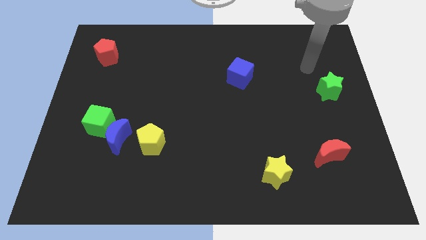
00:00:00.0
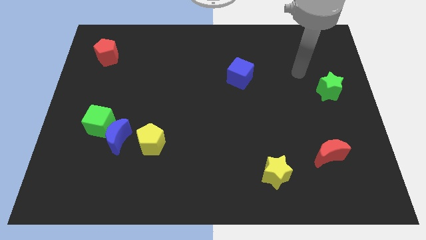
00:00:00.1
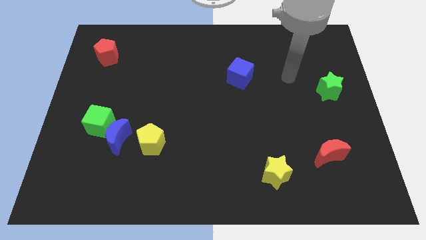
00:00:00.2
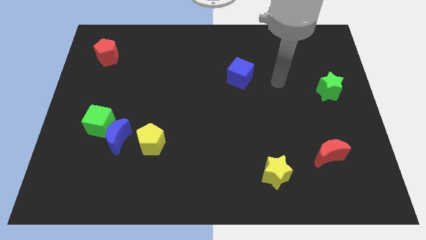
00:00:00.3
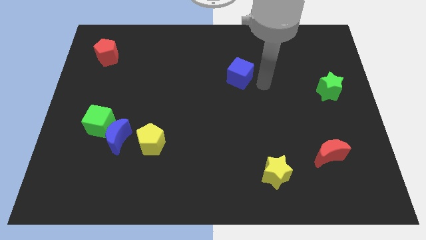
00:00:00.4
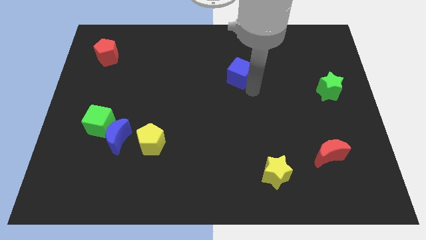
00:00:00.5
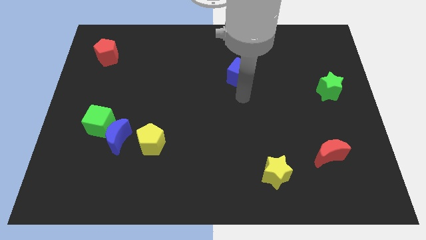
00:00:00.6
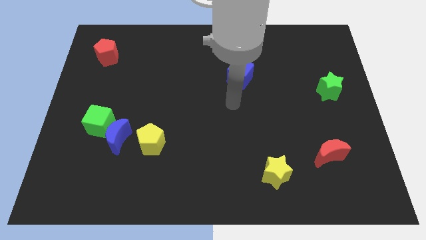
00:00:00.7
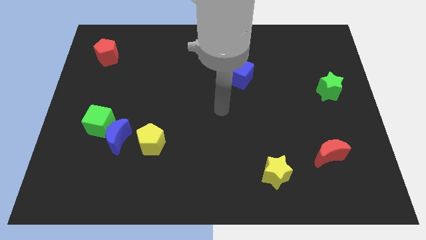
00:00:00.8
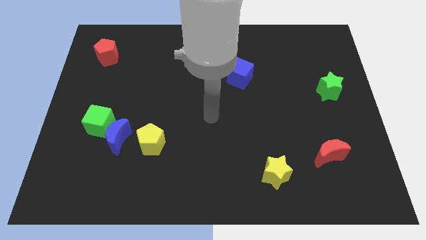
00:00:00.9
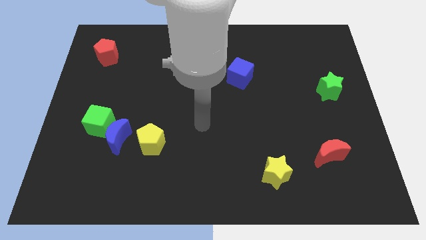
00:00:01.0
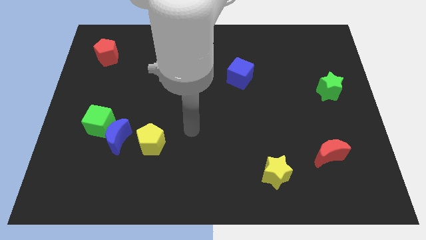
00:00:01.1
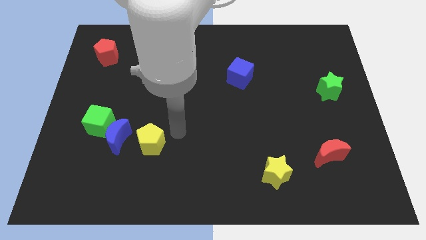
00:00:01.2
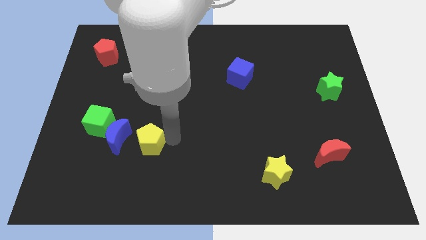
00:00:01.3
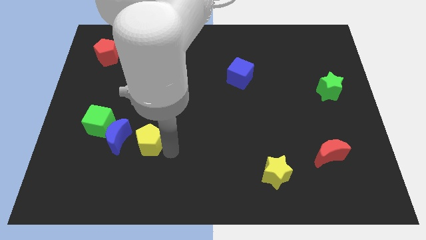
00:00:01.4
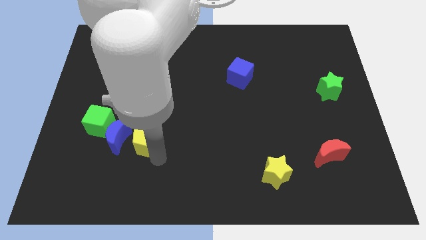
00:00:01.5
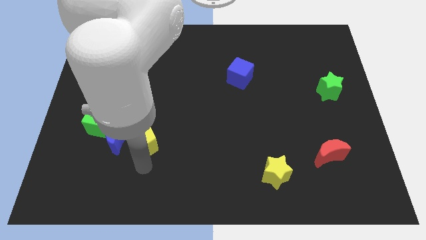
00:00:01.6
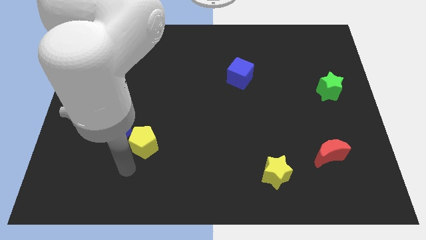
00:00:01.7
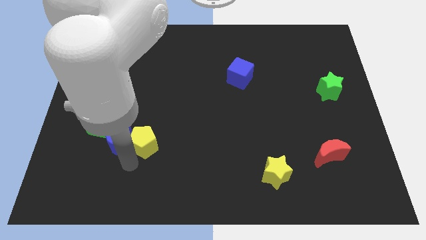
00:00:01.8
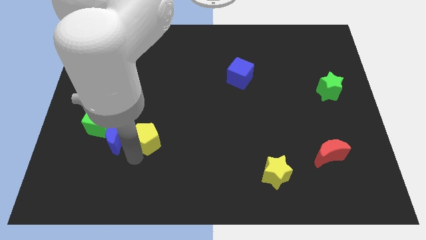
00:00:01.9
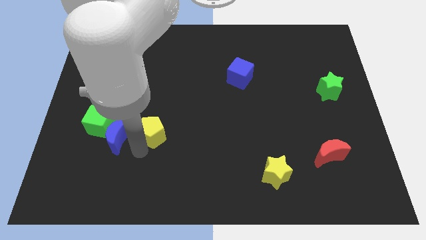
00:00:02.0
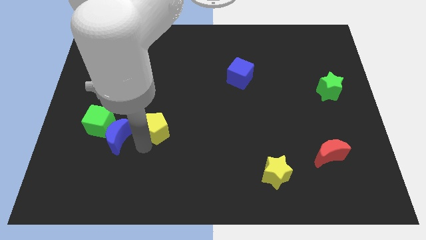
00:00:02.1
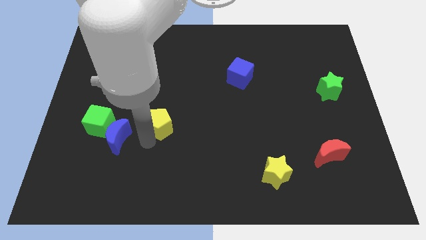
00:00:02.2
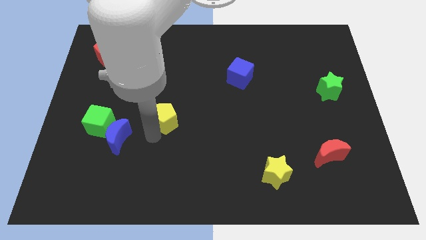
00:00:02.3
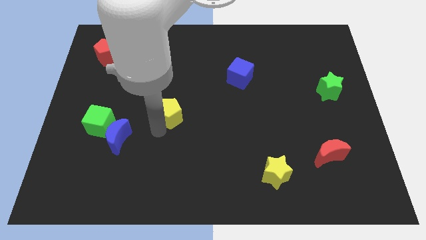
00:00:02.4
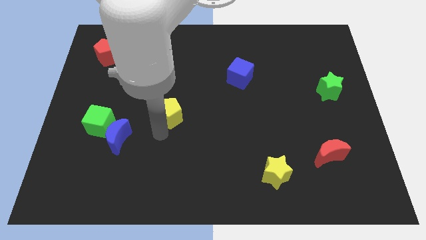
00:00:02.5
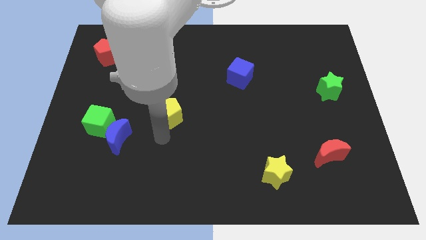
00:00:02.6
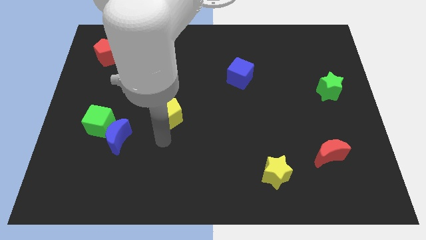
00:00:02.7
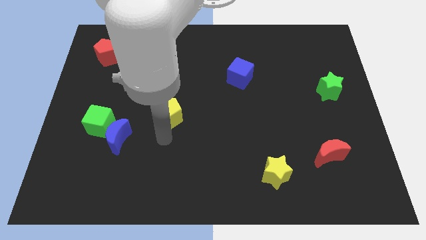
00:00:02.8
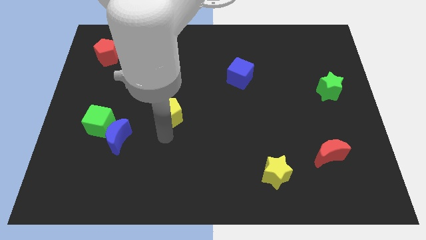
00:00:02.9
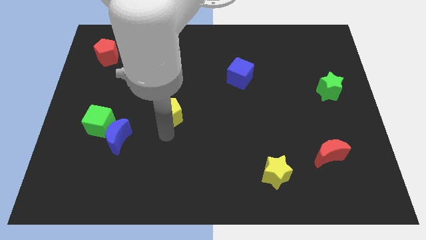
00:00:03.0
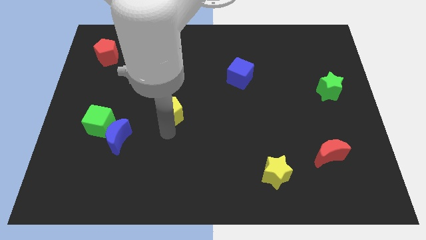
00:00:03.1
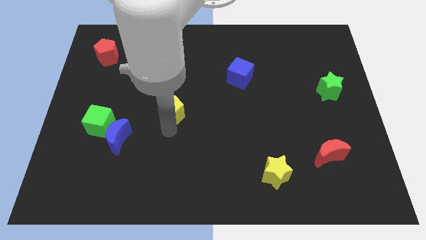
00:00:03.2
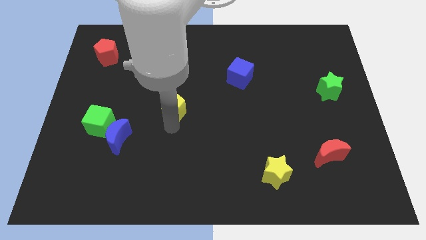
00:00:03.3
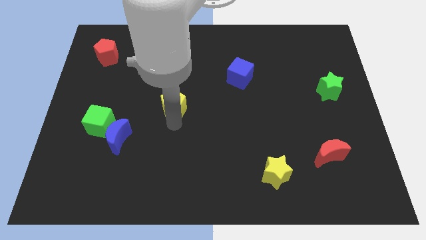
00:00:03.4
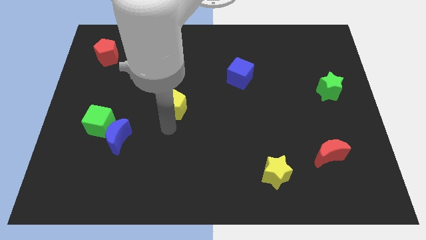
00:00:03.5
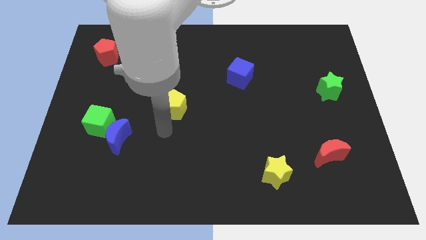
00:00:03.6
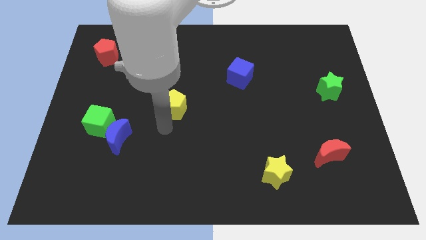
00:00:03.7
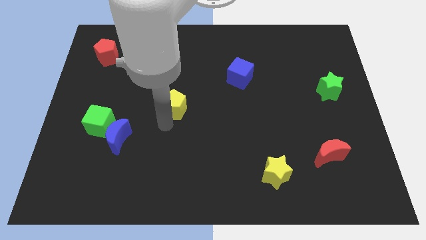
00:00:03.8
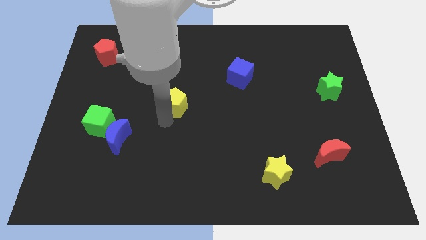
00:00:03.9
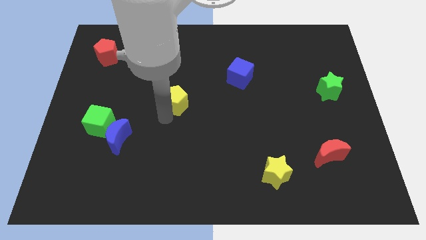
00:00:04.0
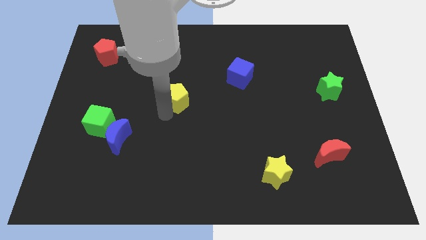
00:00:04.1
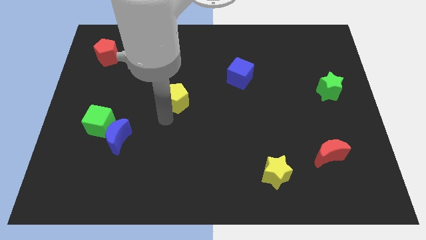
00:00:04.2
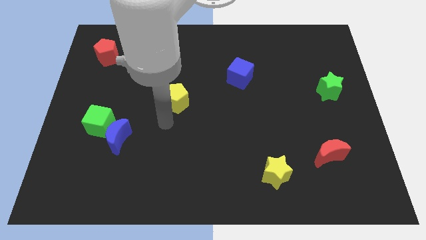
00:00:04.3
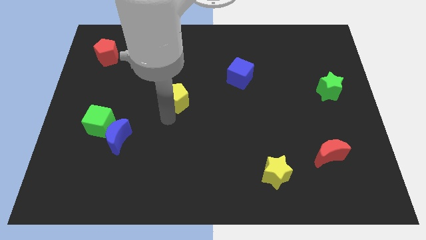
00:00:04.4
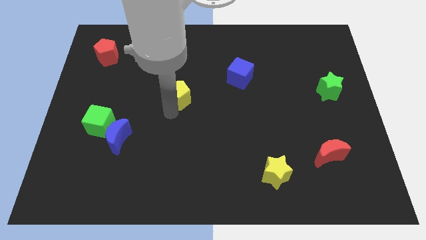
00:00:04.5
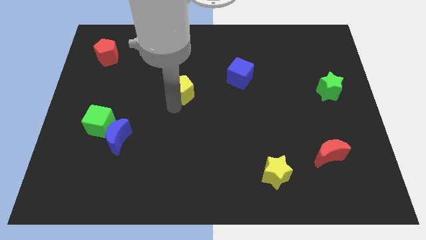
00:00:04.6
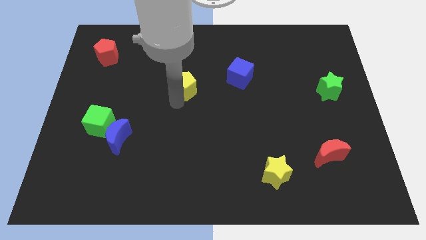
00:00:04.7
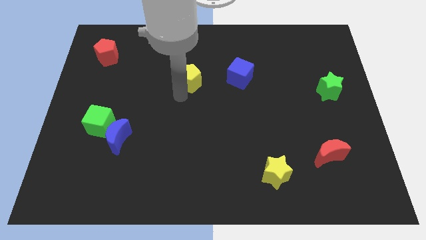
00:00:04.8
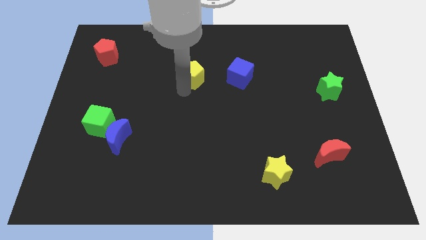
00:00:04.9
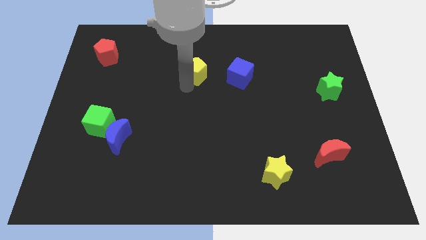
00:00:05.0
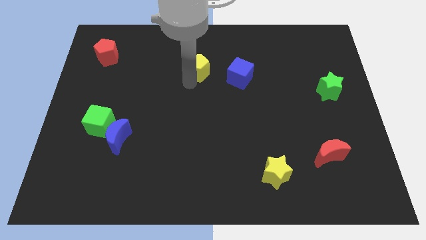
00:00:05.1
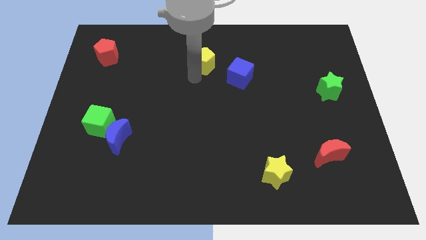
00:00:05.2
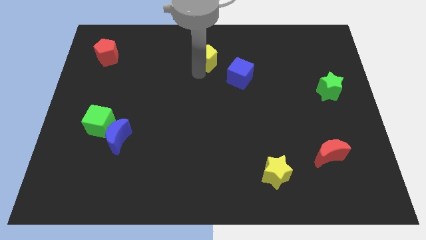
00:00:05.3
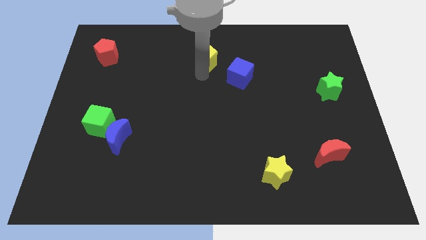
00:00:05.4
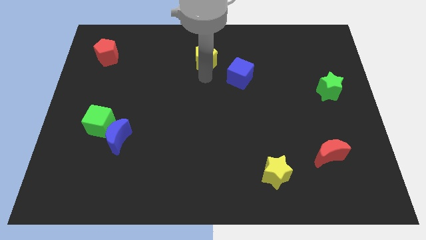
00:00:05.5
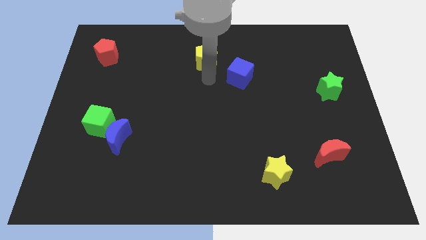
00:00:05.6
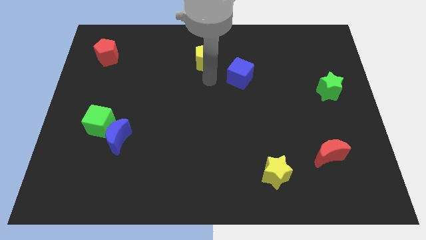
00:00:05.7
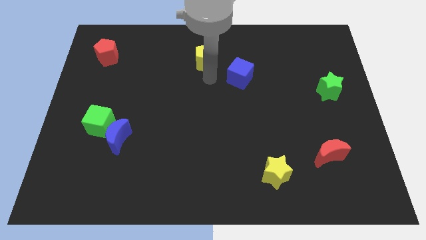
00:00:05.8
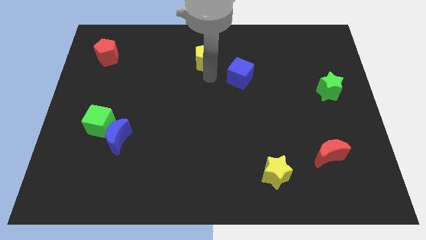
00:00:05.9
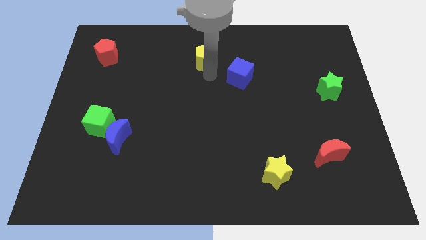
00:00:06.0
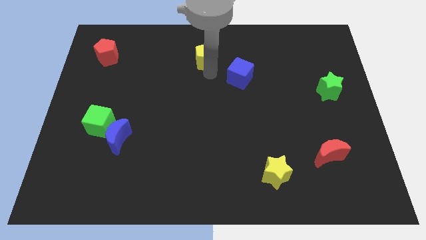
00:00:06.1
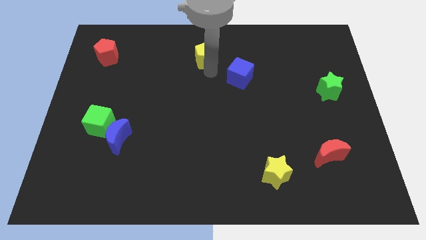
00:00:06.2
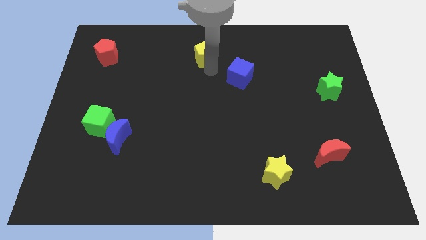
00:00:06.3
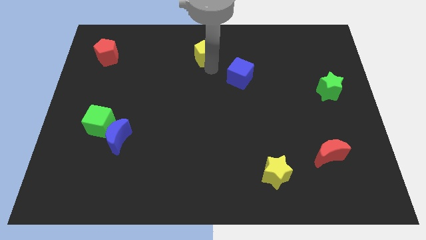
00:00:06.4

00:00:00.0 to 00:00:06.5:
put the yellow pentagon to the top side
